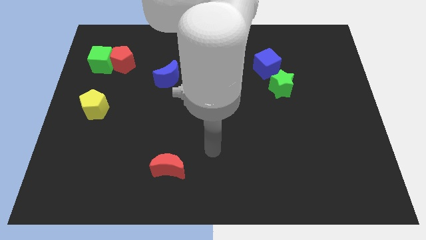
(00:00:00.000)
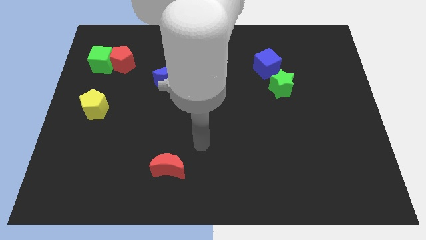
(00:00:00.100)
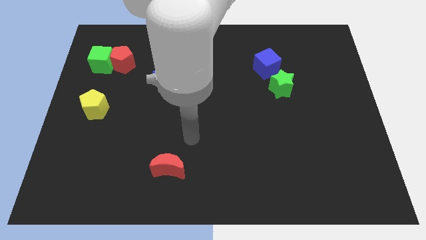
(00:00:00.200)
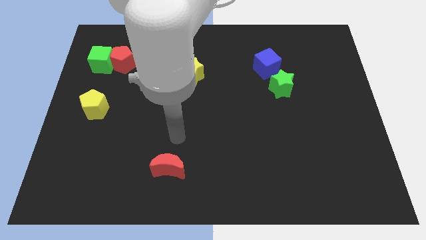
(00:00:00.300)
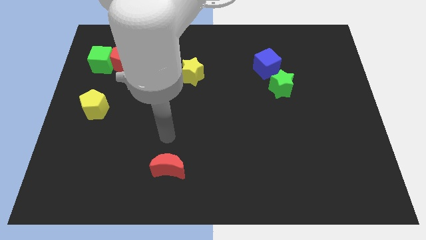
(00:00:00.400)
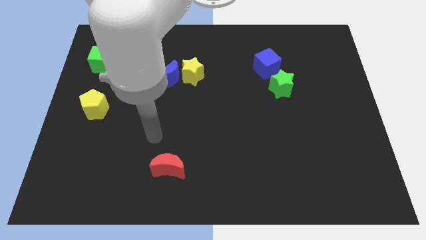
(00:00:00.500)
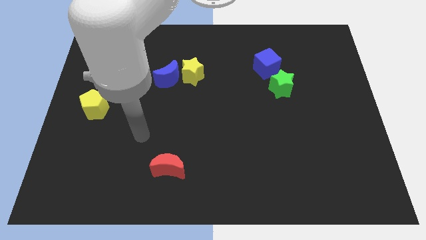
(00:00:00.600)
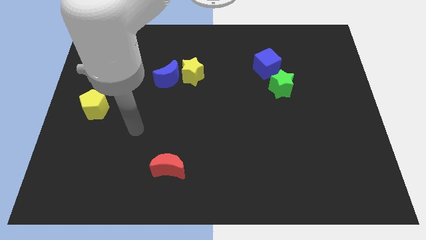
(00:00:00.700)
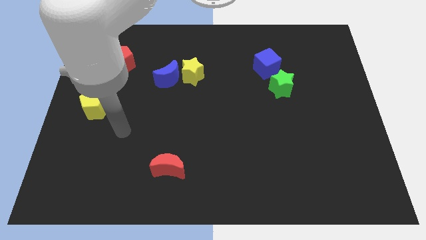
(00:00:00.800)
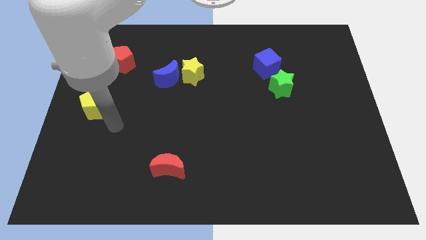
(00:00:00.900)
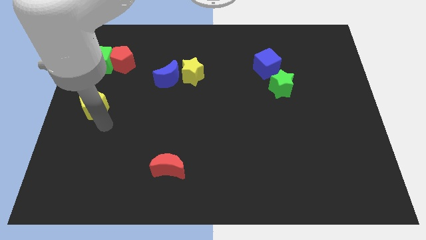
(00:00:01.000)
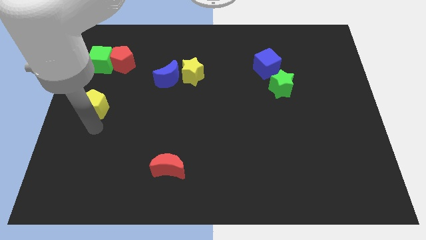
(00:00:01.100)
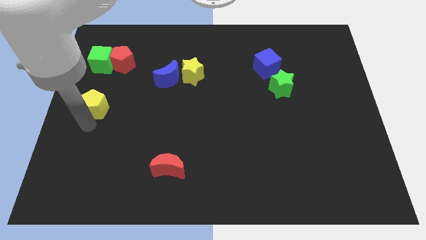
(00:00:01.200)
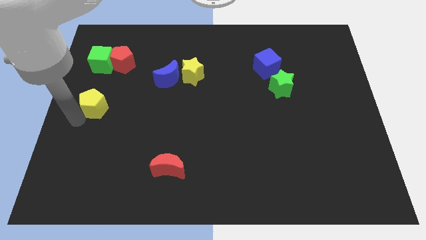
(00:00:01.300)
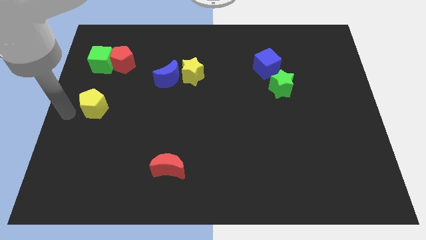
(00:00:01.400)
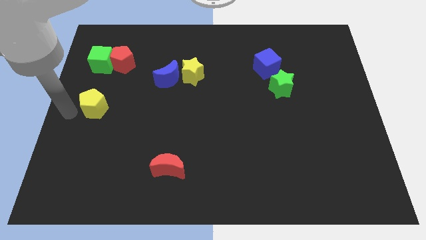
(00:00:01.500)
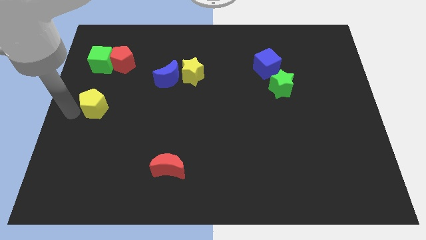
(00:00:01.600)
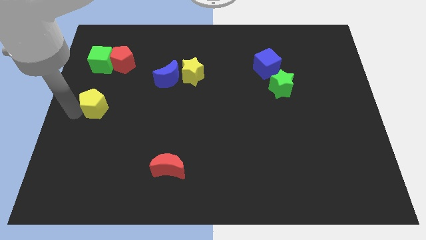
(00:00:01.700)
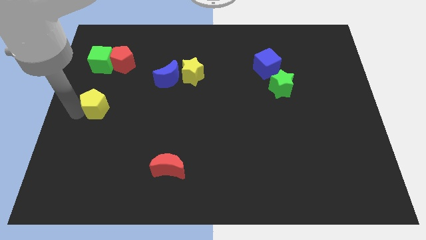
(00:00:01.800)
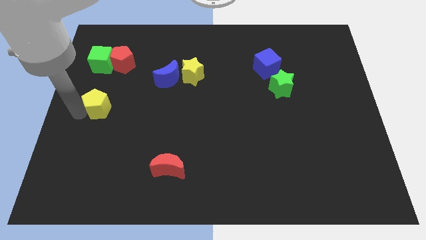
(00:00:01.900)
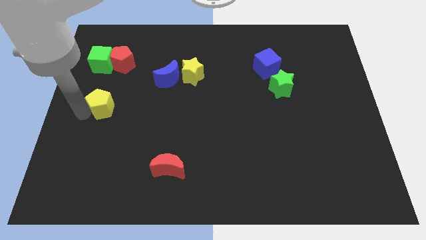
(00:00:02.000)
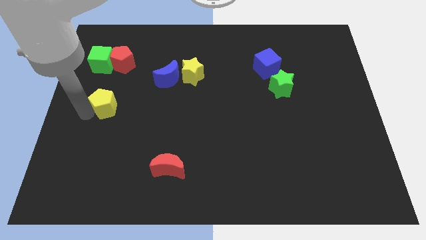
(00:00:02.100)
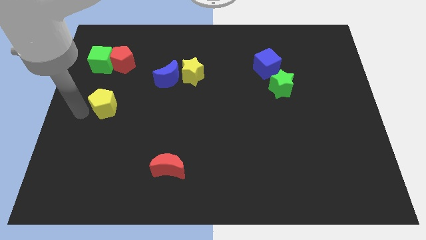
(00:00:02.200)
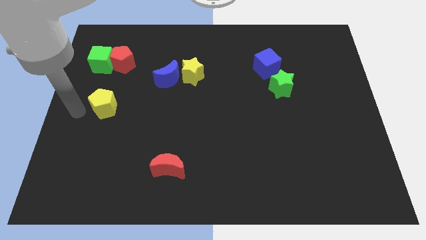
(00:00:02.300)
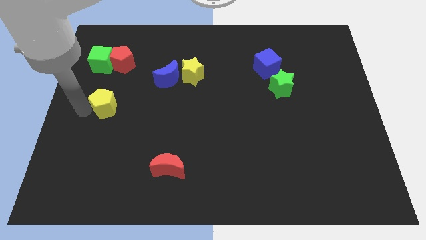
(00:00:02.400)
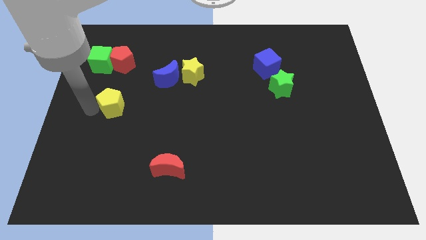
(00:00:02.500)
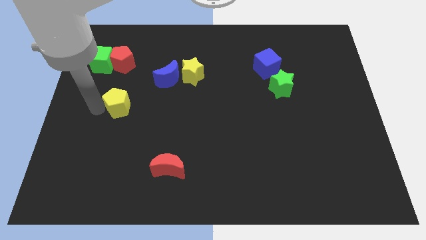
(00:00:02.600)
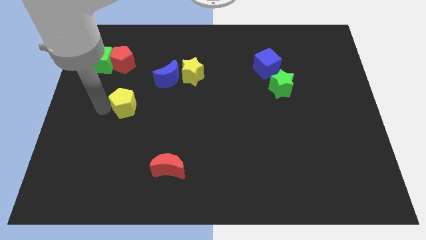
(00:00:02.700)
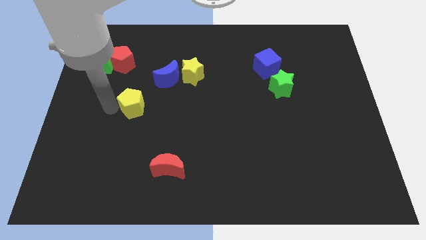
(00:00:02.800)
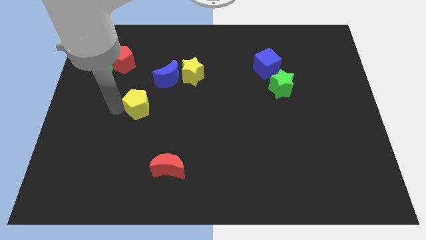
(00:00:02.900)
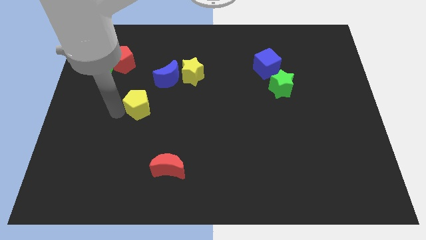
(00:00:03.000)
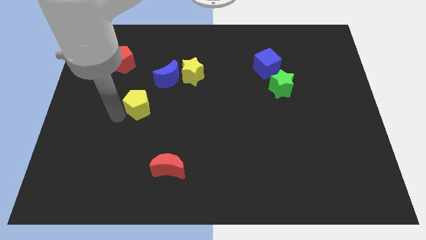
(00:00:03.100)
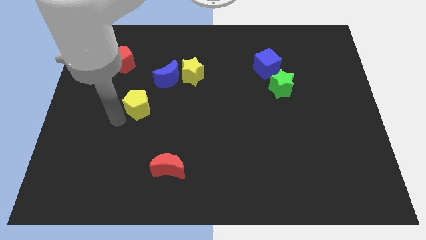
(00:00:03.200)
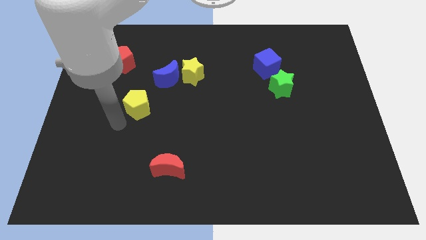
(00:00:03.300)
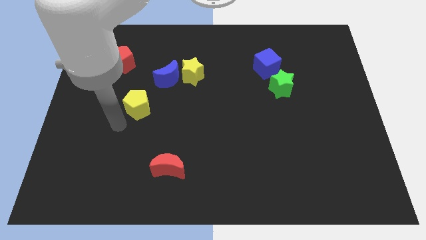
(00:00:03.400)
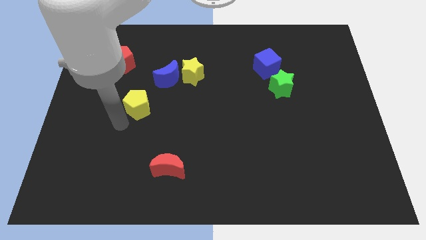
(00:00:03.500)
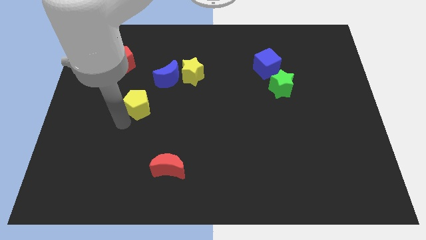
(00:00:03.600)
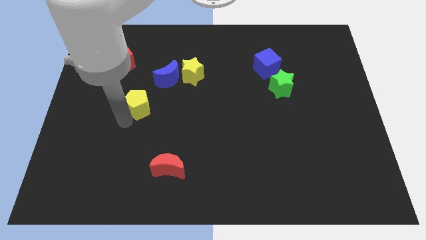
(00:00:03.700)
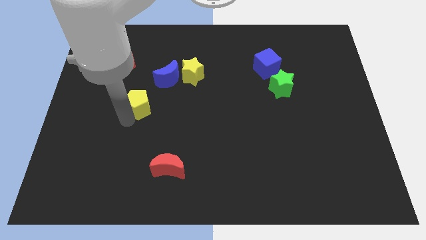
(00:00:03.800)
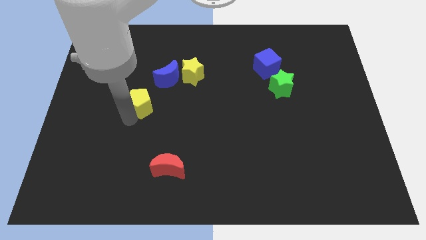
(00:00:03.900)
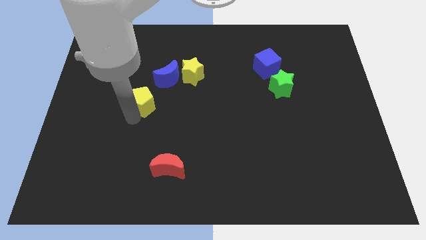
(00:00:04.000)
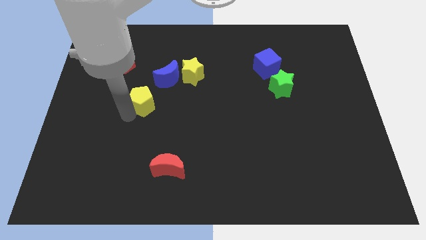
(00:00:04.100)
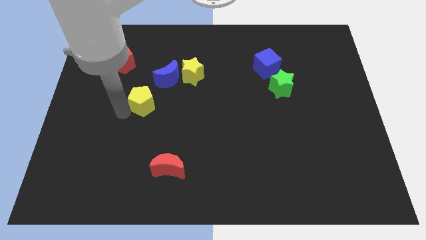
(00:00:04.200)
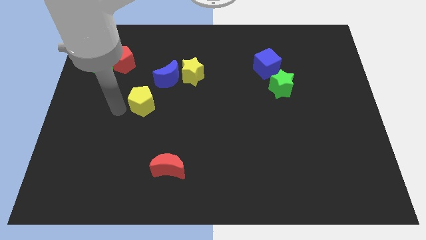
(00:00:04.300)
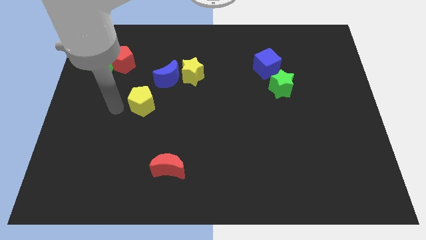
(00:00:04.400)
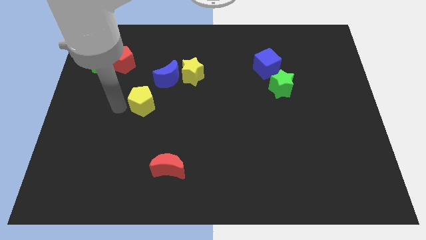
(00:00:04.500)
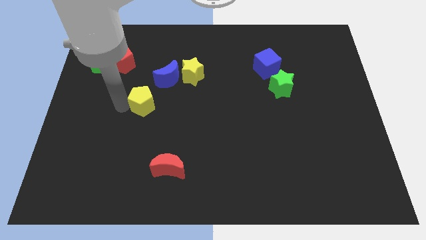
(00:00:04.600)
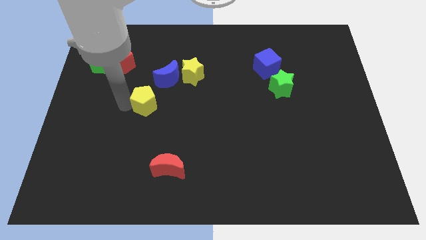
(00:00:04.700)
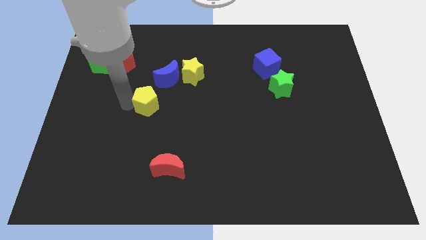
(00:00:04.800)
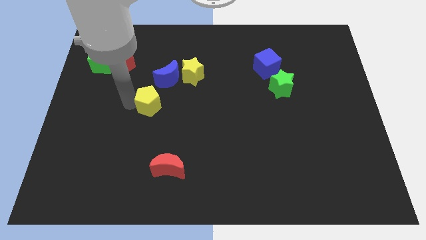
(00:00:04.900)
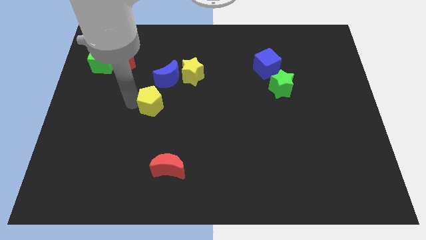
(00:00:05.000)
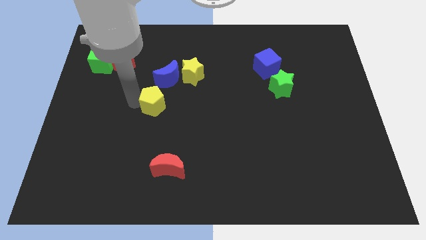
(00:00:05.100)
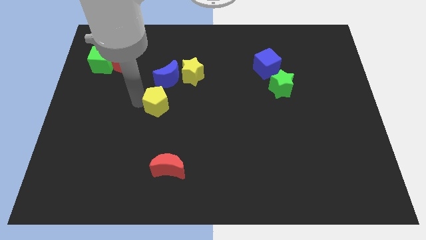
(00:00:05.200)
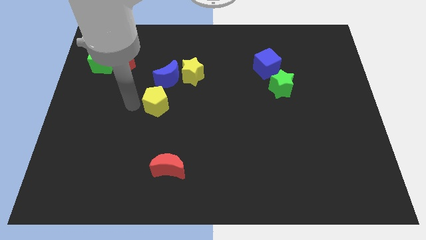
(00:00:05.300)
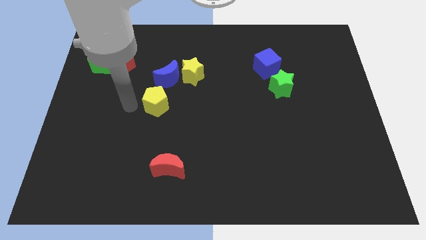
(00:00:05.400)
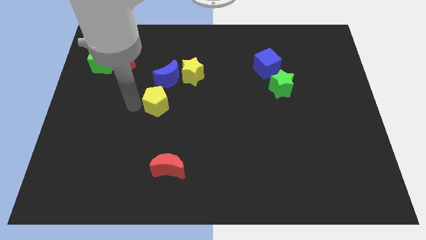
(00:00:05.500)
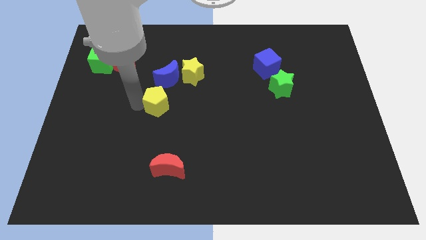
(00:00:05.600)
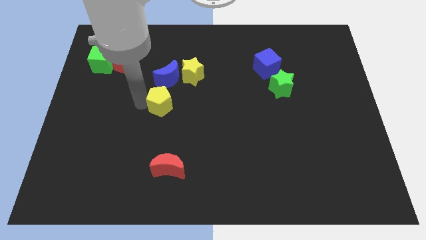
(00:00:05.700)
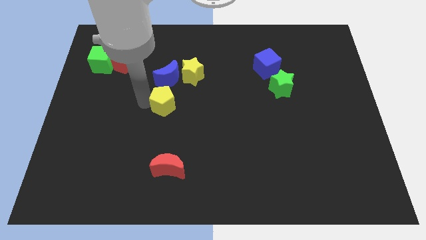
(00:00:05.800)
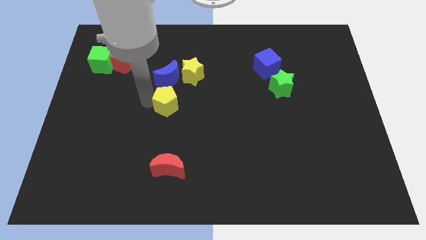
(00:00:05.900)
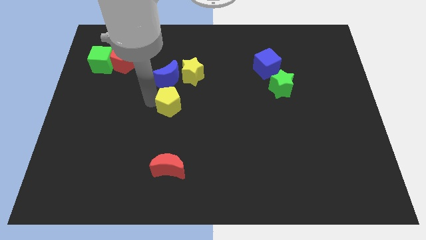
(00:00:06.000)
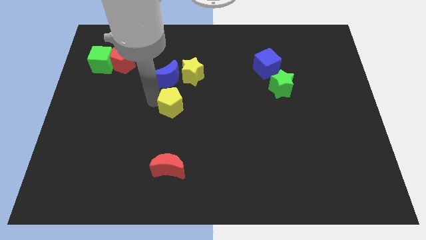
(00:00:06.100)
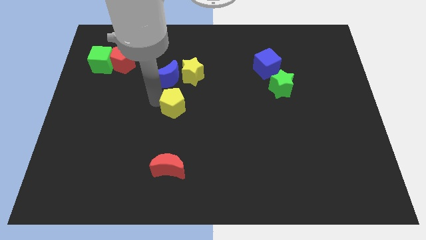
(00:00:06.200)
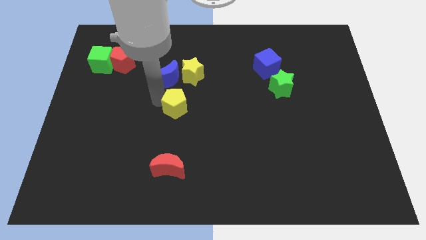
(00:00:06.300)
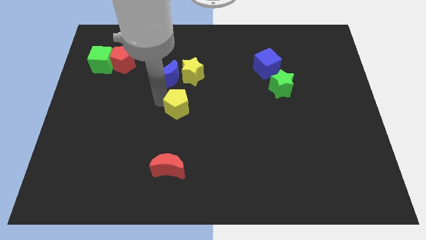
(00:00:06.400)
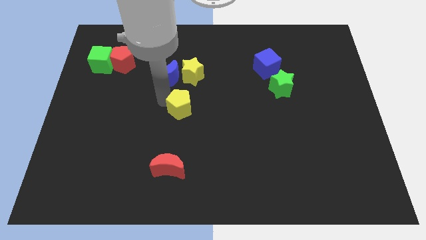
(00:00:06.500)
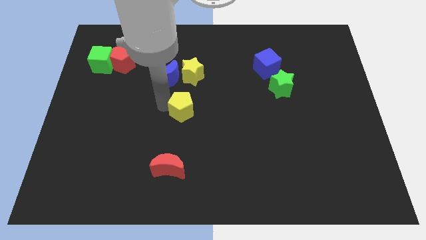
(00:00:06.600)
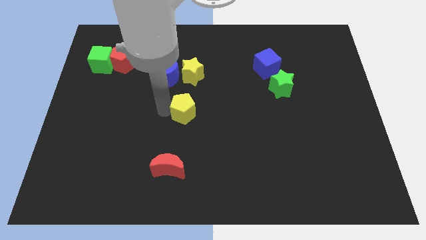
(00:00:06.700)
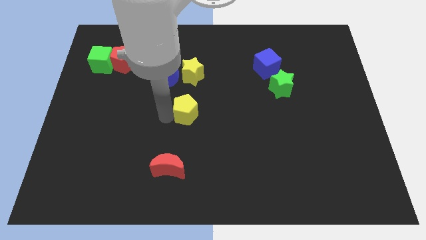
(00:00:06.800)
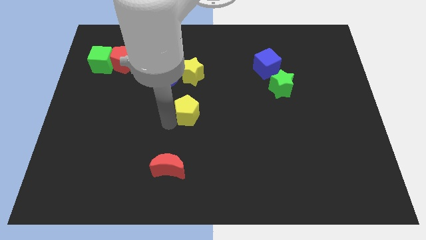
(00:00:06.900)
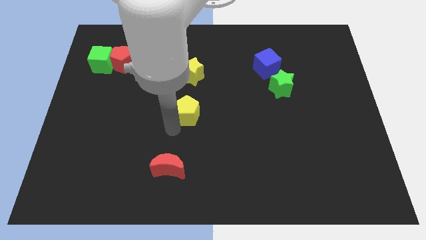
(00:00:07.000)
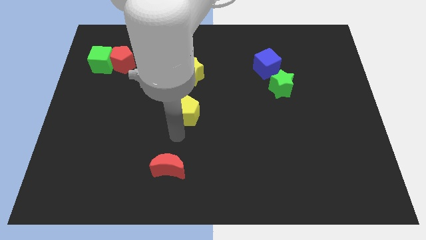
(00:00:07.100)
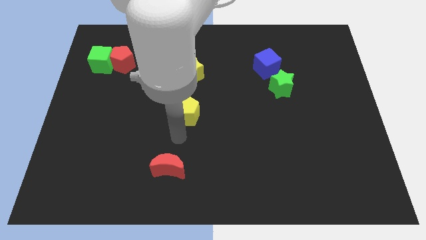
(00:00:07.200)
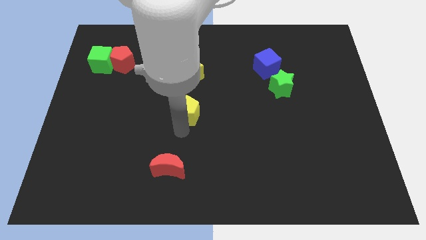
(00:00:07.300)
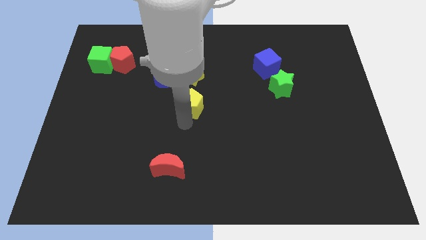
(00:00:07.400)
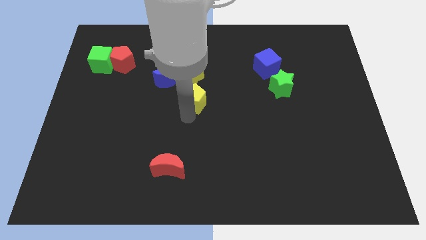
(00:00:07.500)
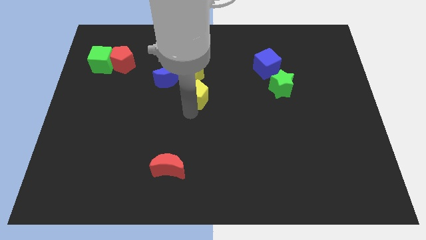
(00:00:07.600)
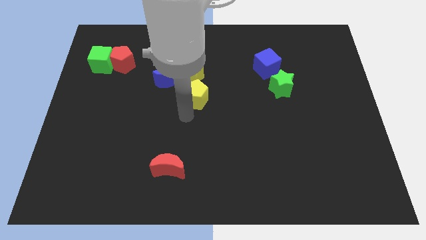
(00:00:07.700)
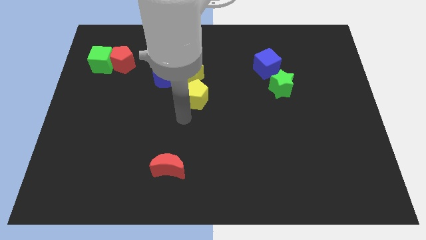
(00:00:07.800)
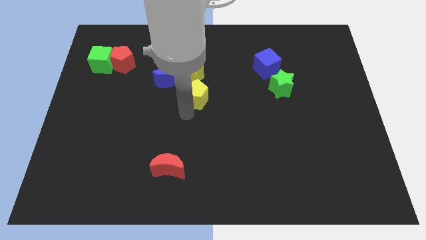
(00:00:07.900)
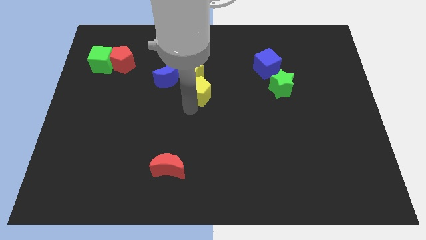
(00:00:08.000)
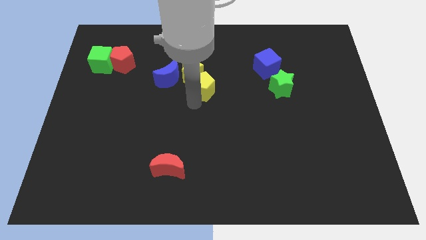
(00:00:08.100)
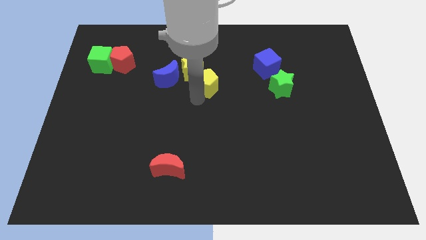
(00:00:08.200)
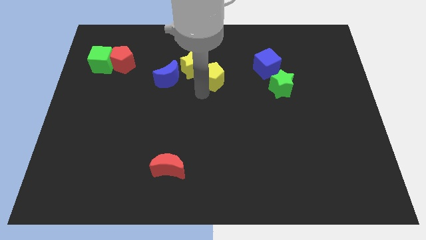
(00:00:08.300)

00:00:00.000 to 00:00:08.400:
slide the yellow pentagon to the left side of the blue cube
